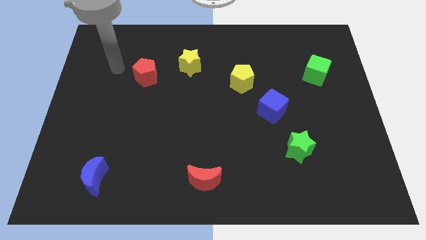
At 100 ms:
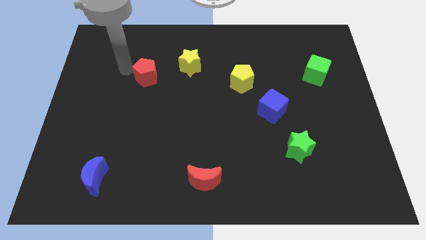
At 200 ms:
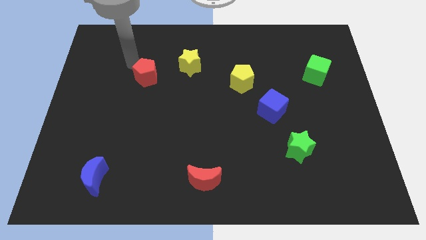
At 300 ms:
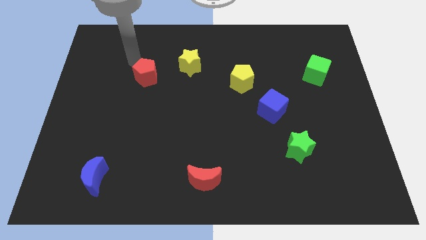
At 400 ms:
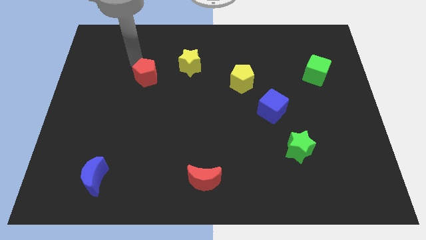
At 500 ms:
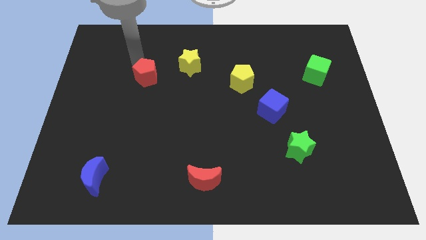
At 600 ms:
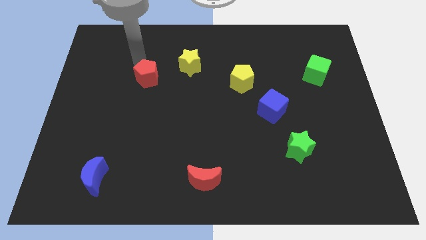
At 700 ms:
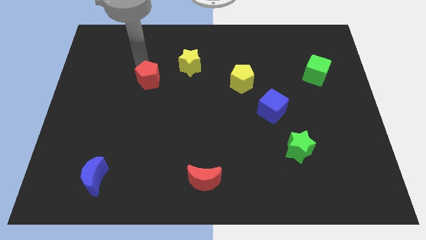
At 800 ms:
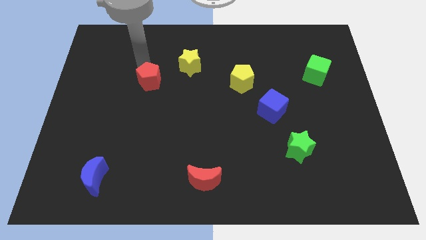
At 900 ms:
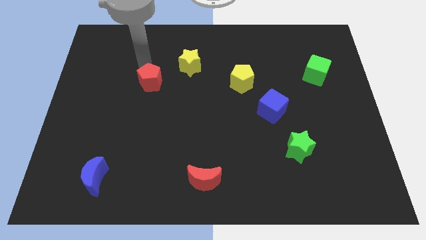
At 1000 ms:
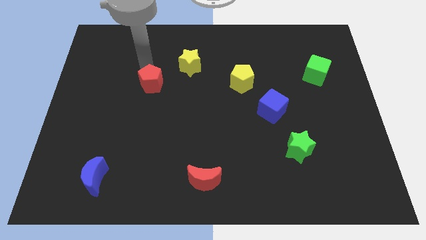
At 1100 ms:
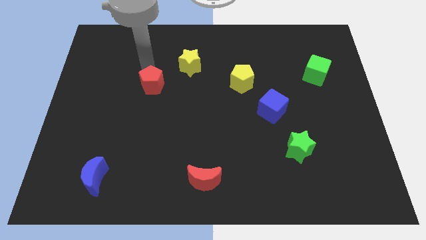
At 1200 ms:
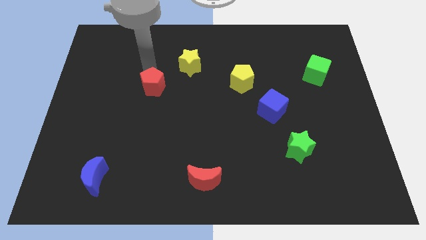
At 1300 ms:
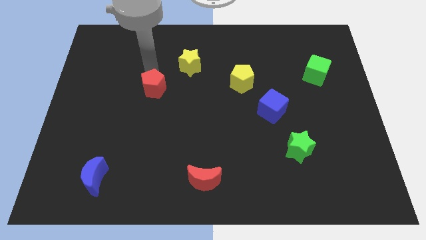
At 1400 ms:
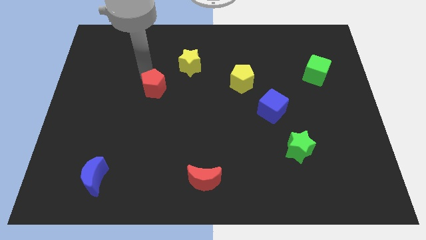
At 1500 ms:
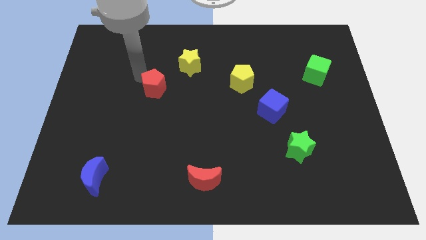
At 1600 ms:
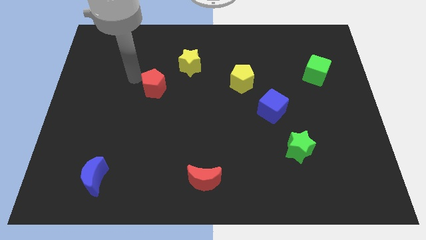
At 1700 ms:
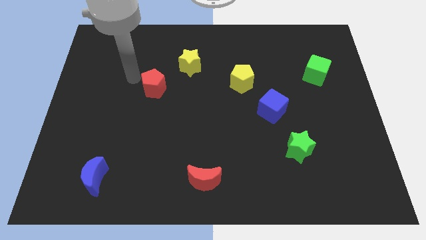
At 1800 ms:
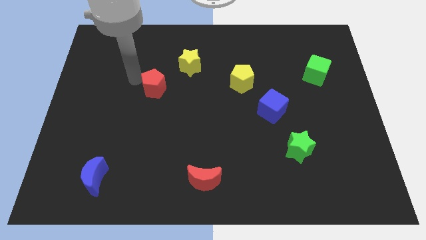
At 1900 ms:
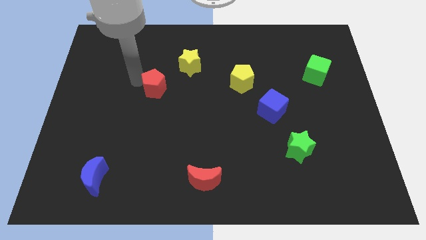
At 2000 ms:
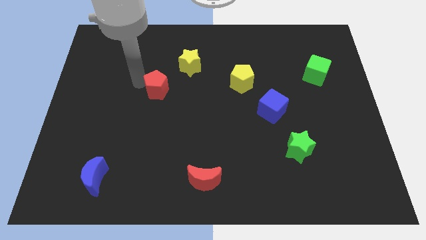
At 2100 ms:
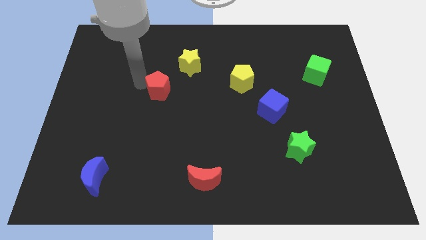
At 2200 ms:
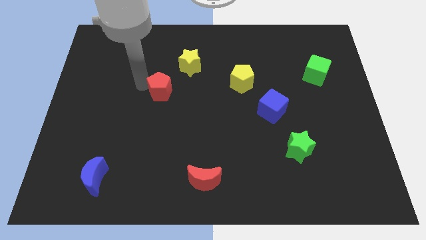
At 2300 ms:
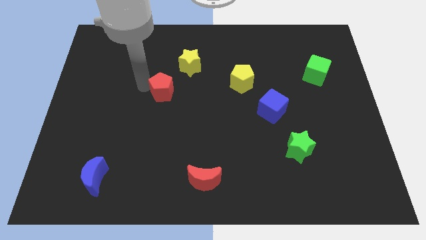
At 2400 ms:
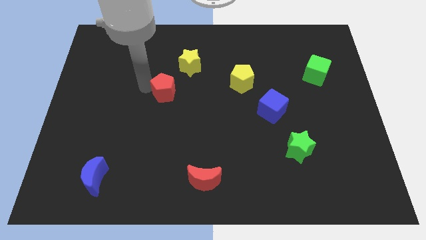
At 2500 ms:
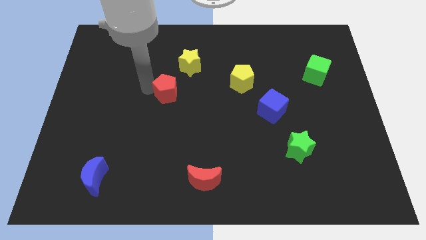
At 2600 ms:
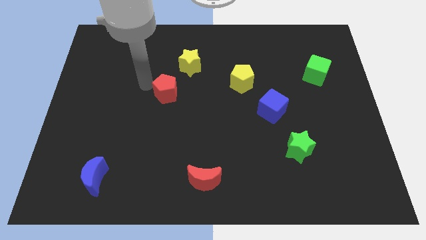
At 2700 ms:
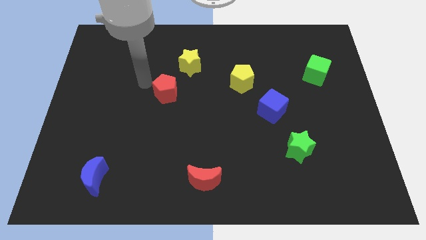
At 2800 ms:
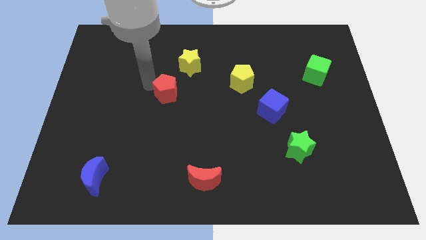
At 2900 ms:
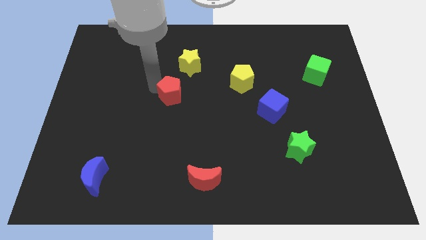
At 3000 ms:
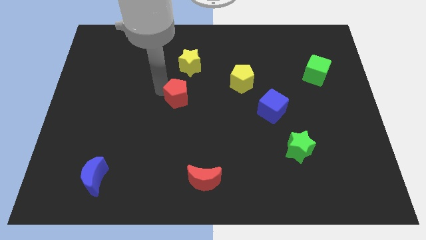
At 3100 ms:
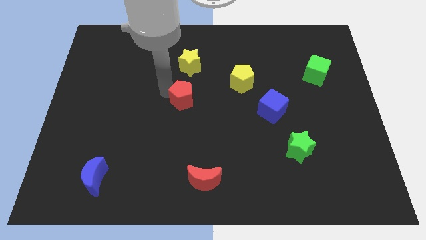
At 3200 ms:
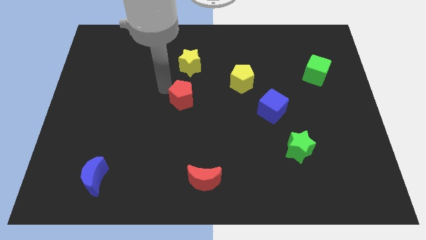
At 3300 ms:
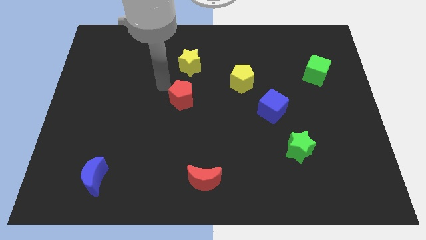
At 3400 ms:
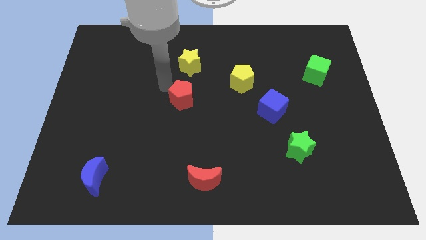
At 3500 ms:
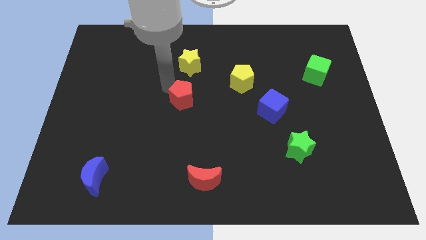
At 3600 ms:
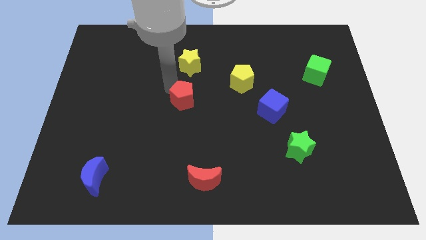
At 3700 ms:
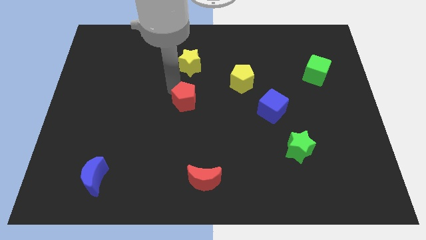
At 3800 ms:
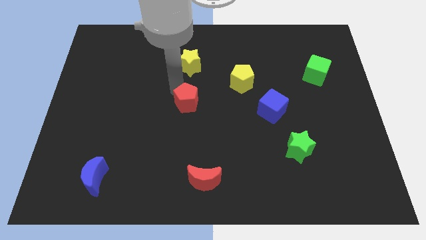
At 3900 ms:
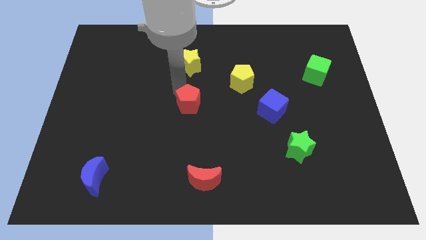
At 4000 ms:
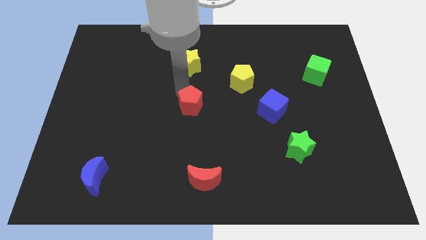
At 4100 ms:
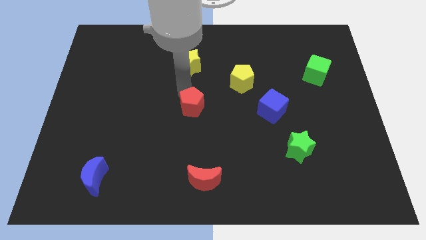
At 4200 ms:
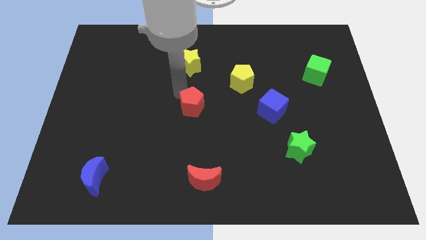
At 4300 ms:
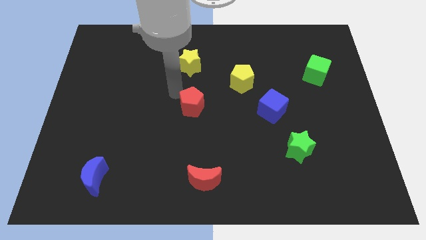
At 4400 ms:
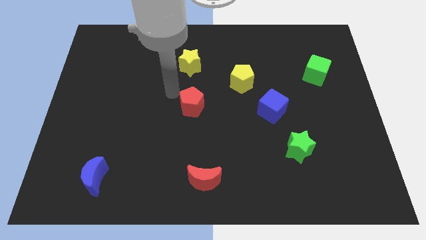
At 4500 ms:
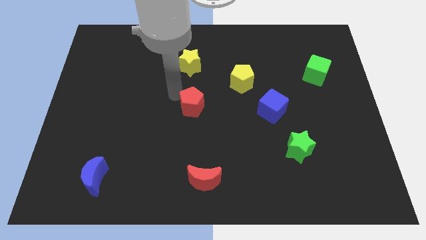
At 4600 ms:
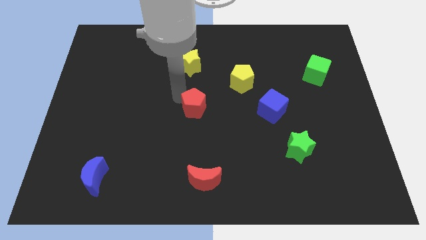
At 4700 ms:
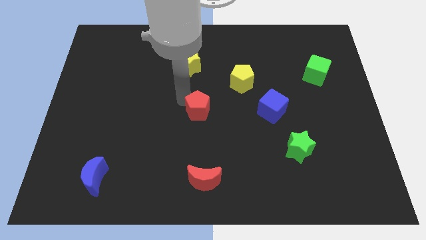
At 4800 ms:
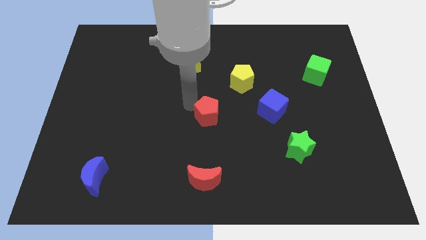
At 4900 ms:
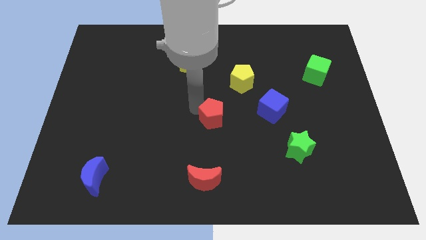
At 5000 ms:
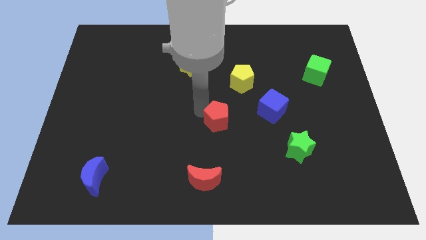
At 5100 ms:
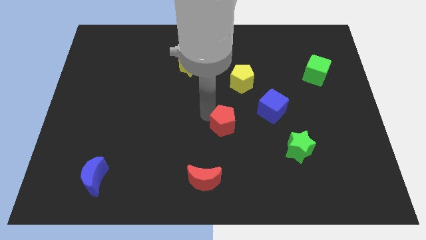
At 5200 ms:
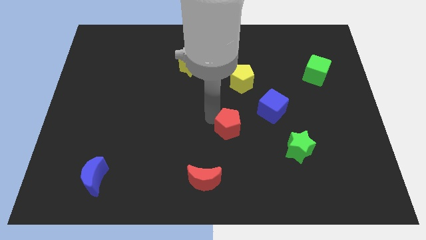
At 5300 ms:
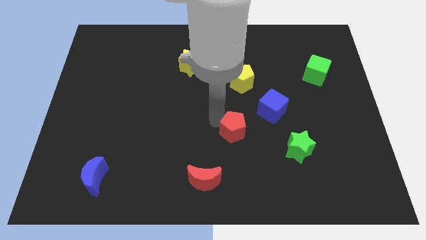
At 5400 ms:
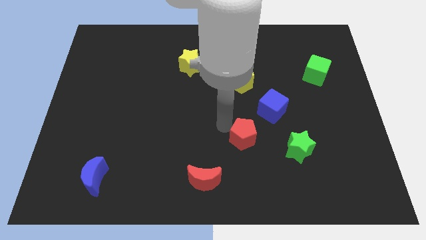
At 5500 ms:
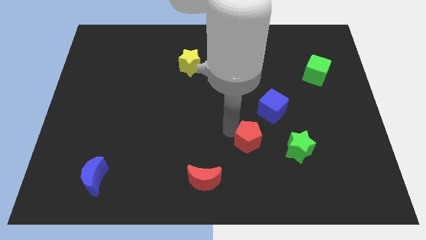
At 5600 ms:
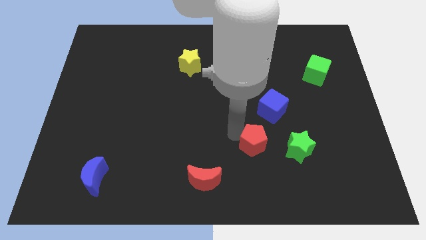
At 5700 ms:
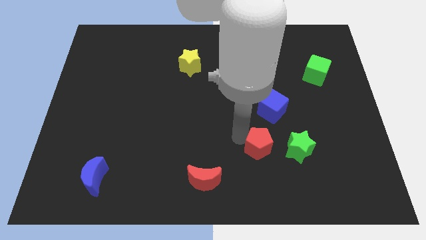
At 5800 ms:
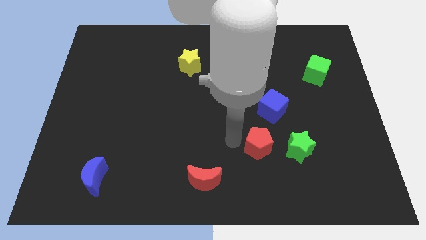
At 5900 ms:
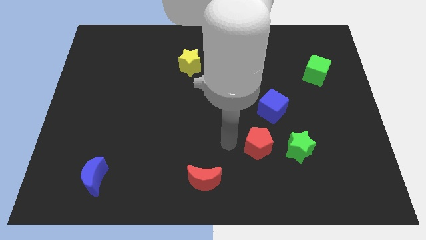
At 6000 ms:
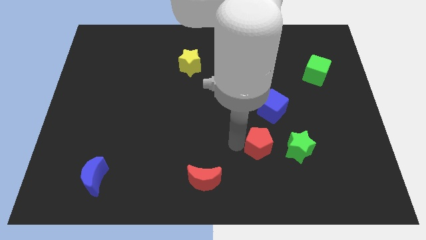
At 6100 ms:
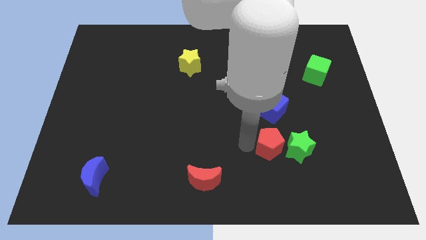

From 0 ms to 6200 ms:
push the red pentagon next to the green star
